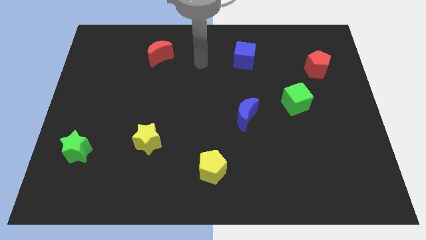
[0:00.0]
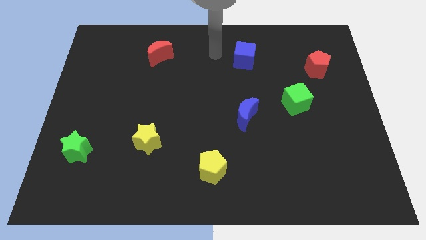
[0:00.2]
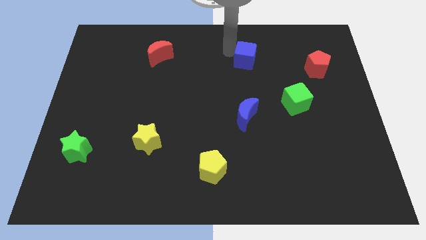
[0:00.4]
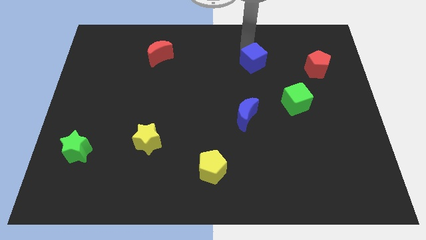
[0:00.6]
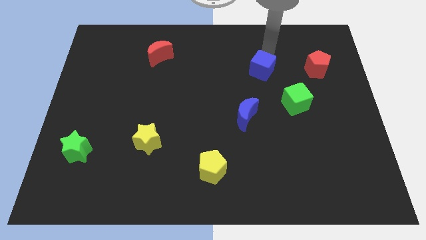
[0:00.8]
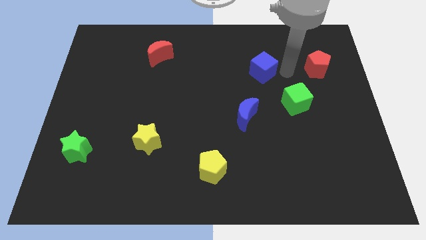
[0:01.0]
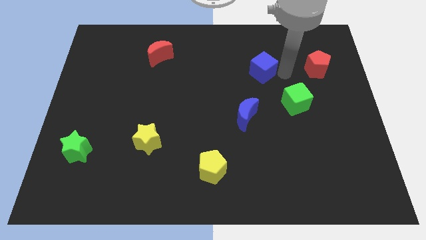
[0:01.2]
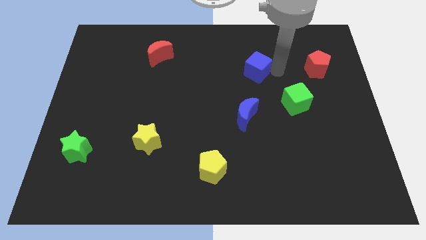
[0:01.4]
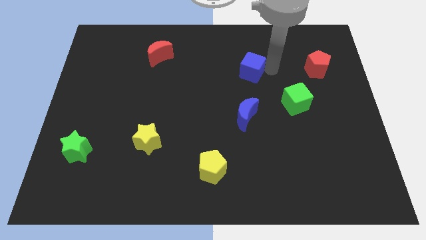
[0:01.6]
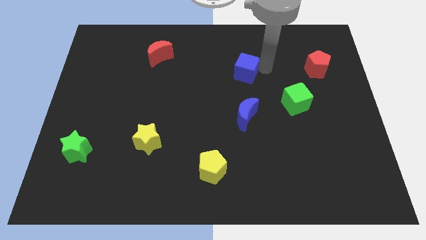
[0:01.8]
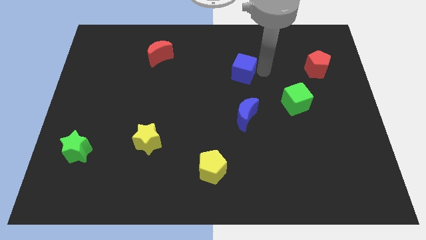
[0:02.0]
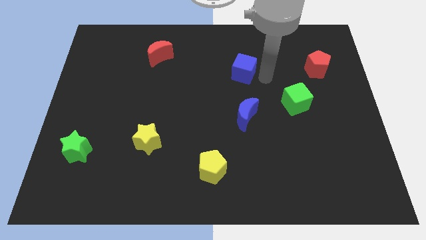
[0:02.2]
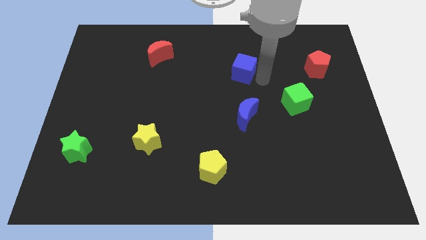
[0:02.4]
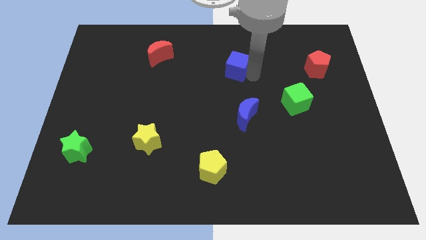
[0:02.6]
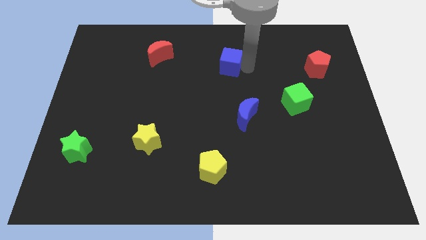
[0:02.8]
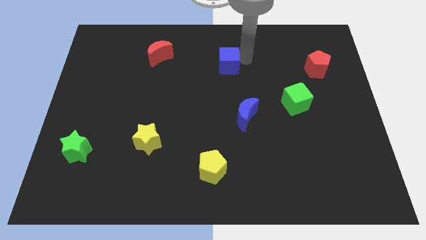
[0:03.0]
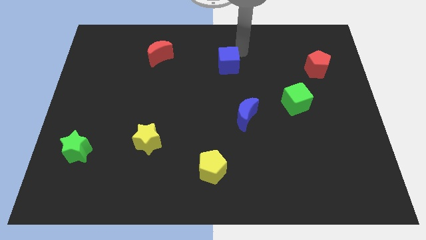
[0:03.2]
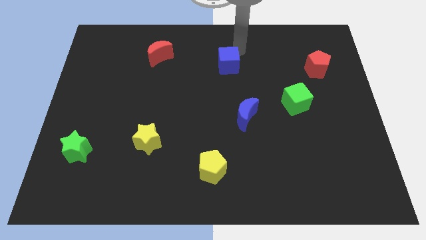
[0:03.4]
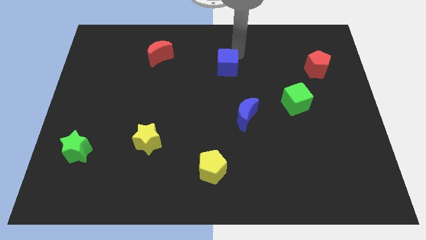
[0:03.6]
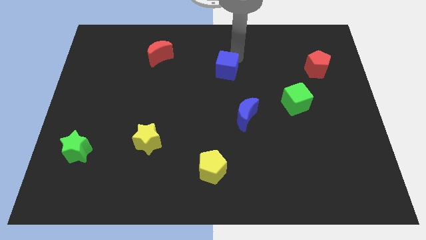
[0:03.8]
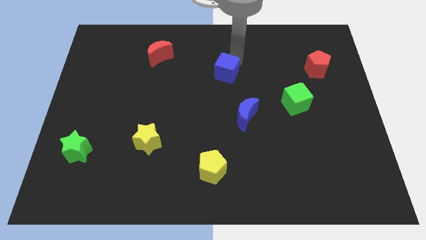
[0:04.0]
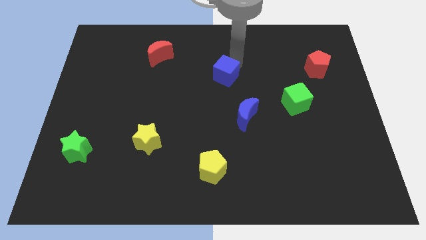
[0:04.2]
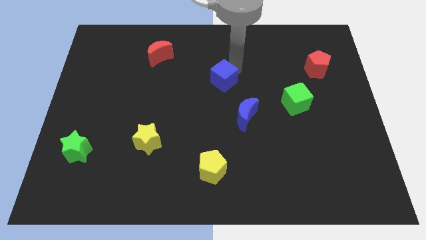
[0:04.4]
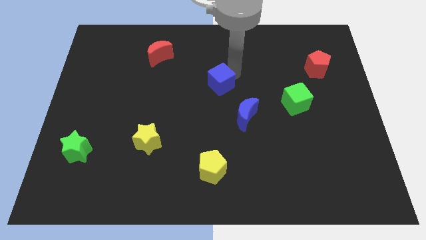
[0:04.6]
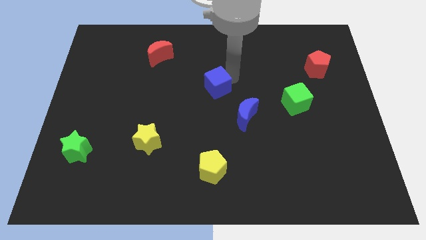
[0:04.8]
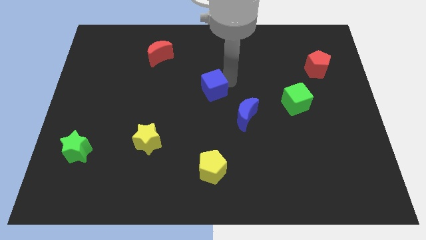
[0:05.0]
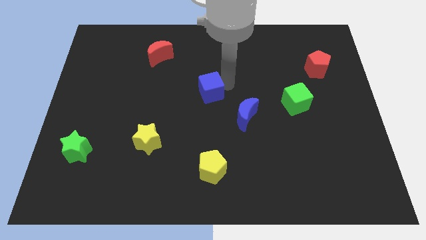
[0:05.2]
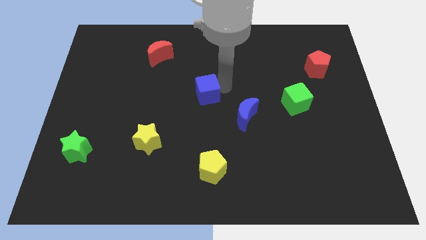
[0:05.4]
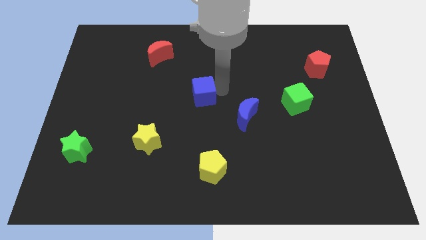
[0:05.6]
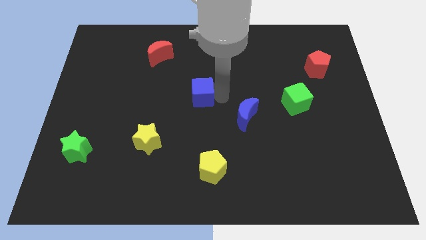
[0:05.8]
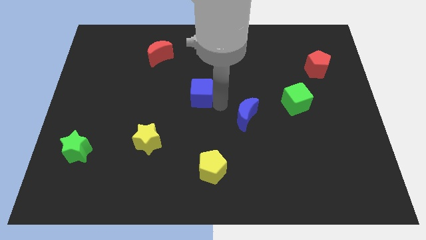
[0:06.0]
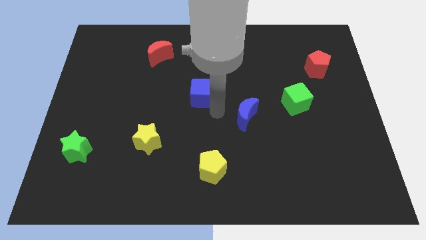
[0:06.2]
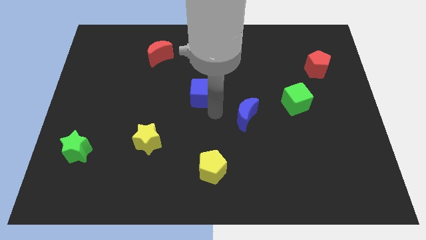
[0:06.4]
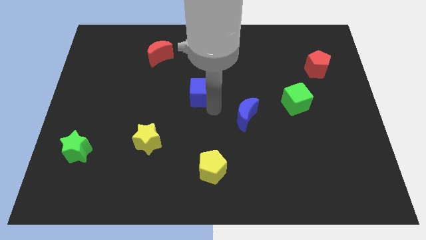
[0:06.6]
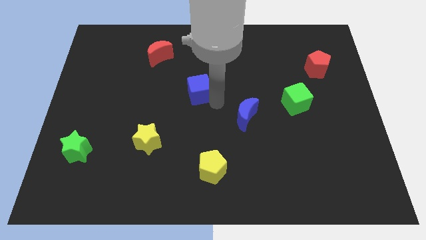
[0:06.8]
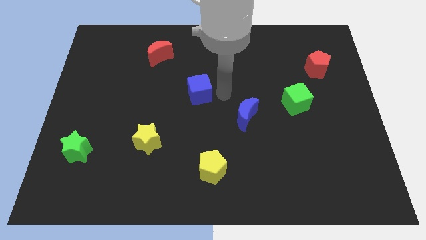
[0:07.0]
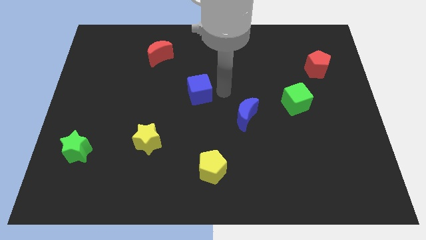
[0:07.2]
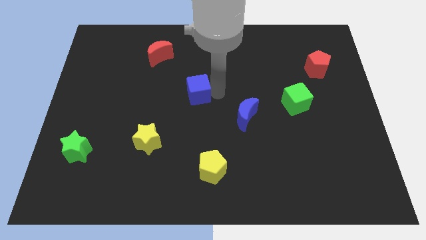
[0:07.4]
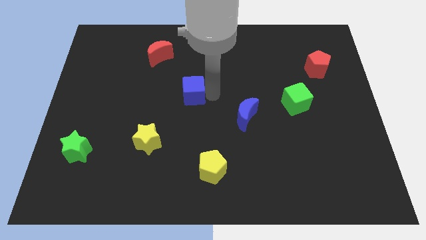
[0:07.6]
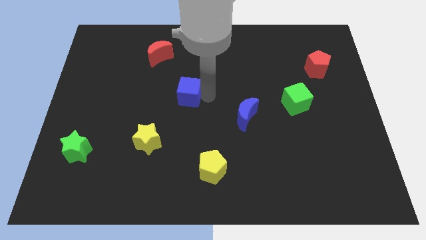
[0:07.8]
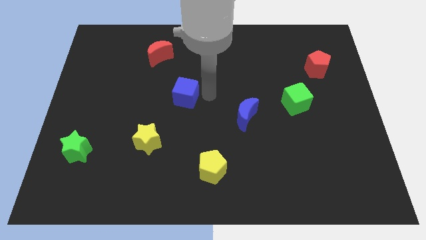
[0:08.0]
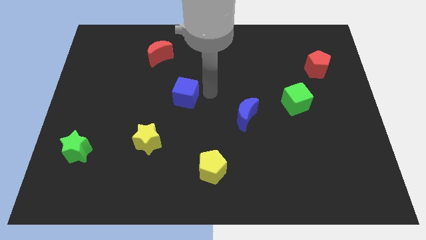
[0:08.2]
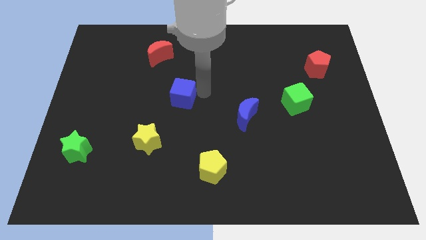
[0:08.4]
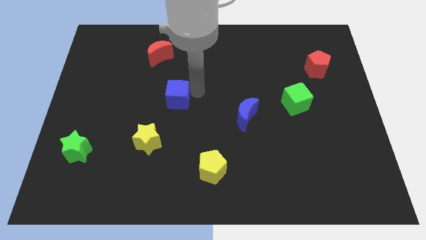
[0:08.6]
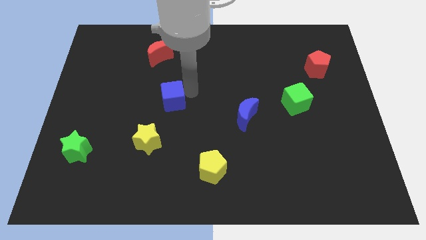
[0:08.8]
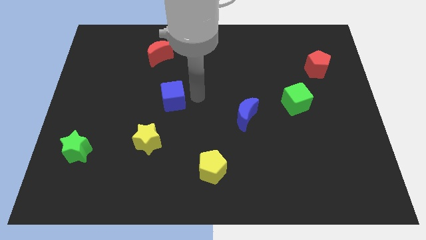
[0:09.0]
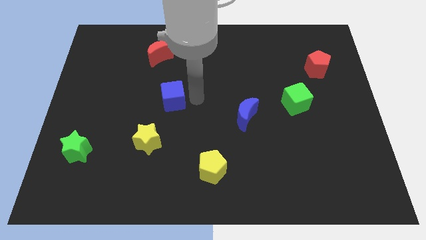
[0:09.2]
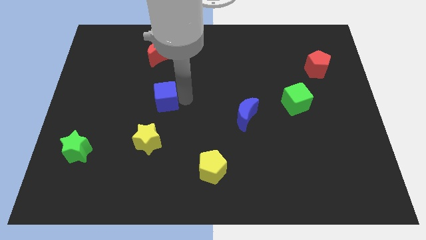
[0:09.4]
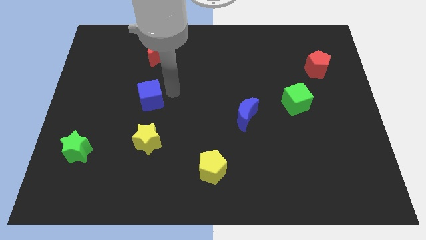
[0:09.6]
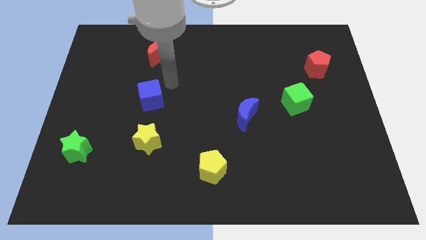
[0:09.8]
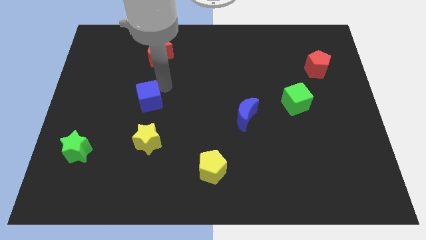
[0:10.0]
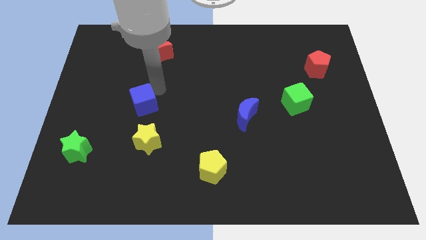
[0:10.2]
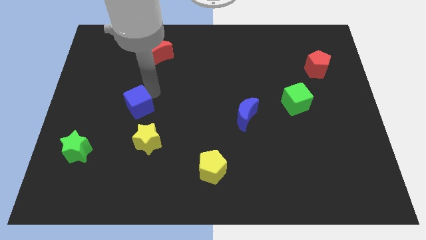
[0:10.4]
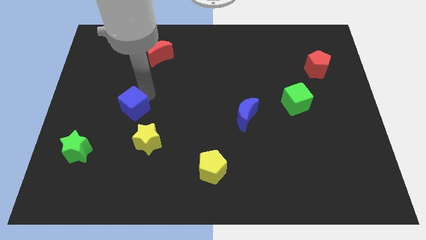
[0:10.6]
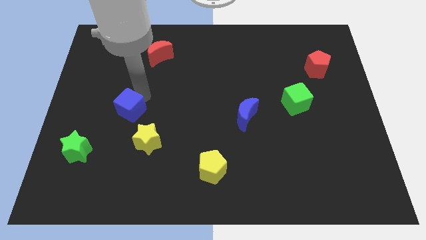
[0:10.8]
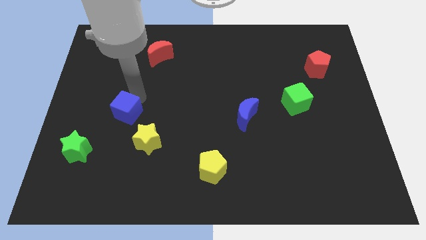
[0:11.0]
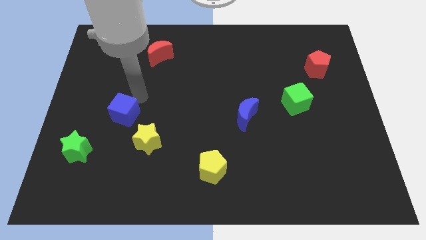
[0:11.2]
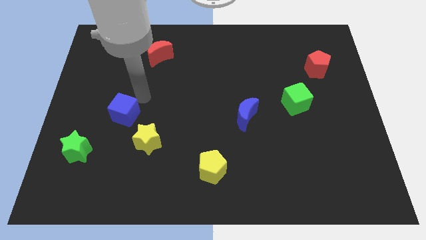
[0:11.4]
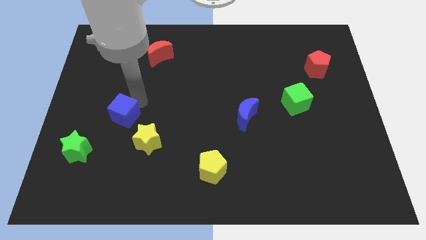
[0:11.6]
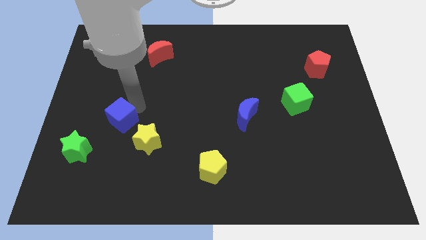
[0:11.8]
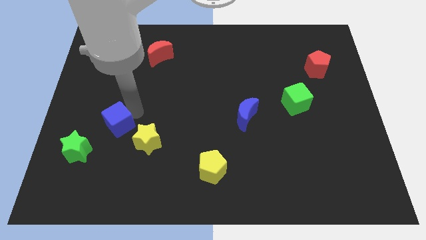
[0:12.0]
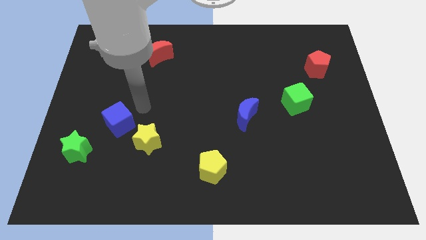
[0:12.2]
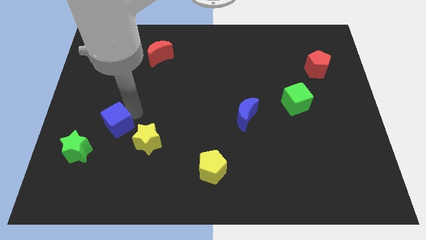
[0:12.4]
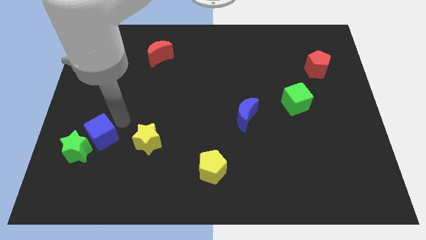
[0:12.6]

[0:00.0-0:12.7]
put the blue cube next to the green star
